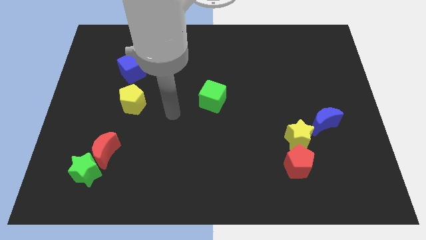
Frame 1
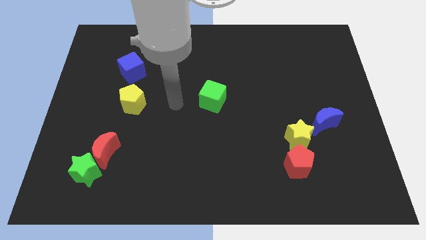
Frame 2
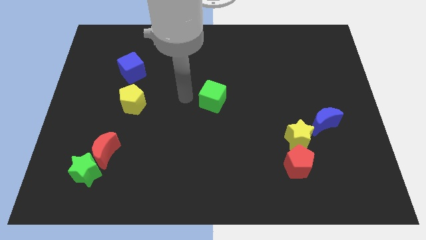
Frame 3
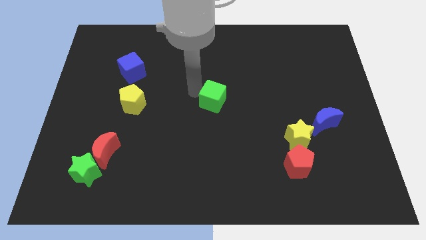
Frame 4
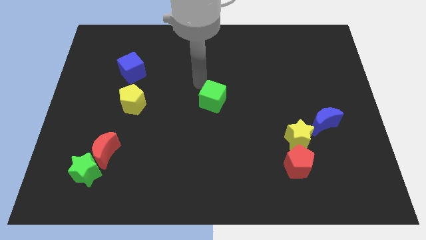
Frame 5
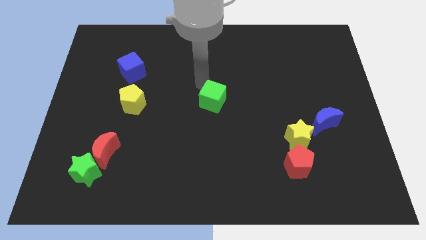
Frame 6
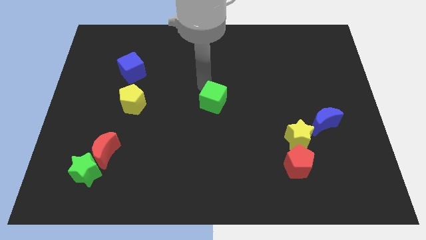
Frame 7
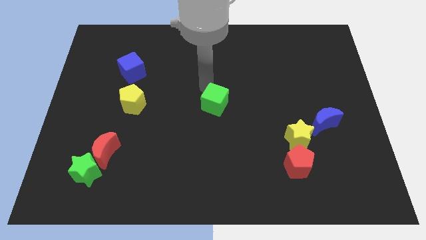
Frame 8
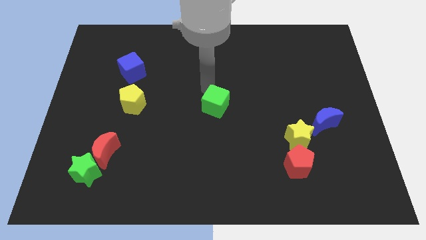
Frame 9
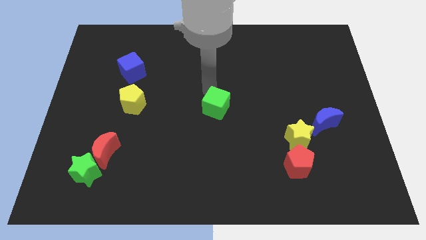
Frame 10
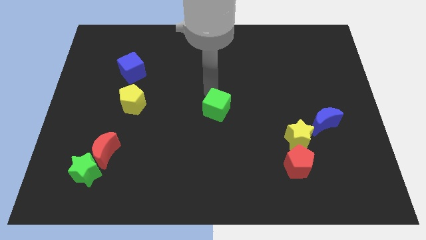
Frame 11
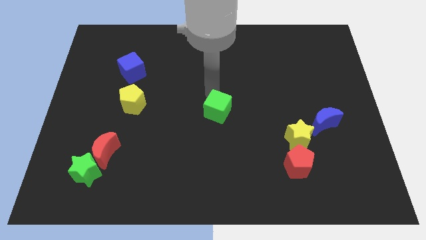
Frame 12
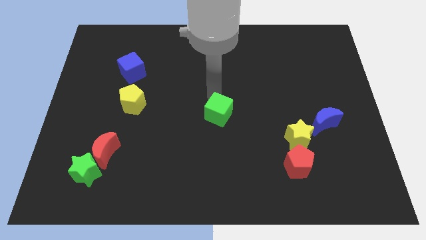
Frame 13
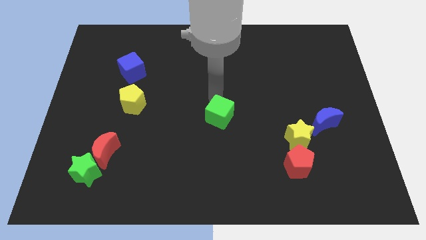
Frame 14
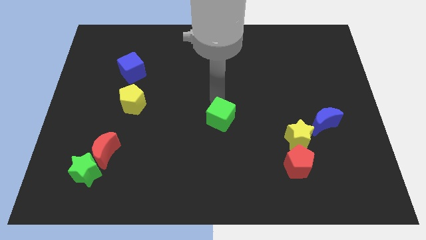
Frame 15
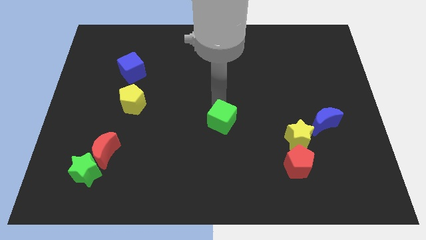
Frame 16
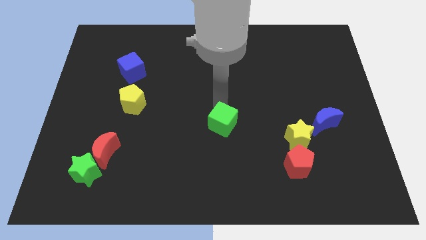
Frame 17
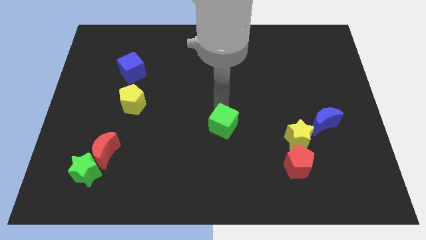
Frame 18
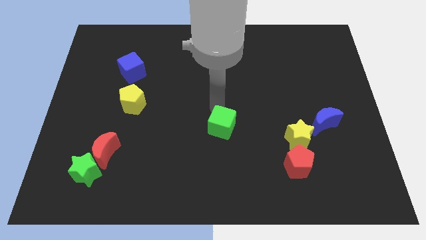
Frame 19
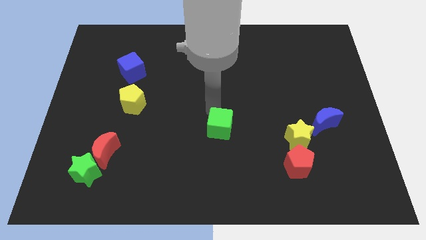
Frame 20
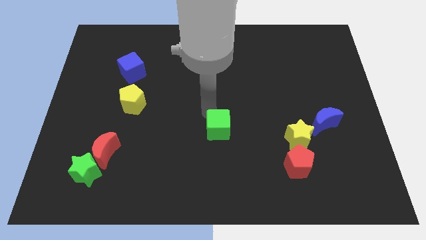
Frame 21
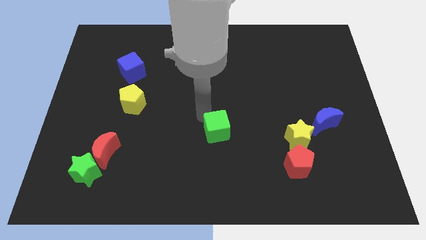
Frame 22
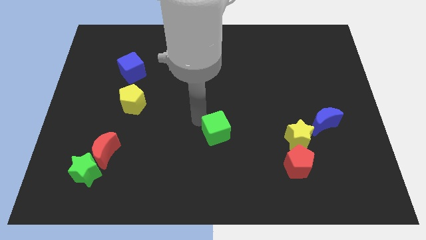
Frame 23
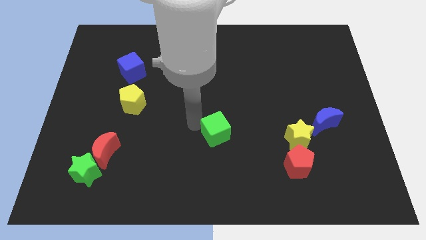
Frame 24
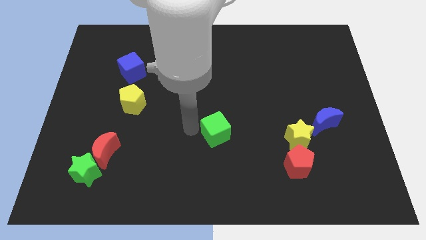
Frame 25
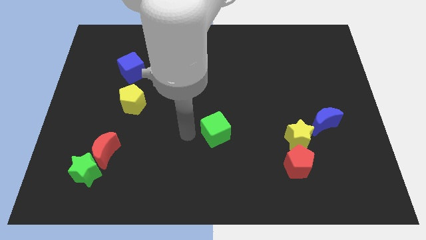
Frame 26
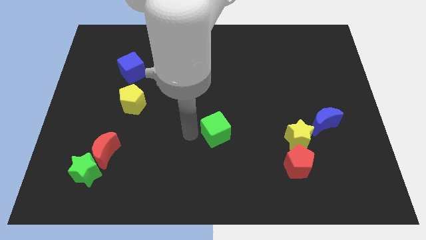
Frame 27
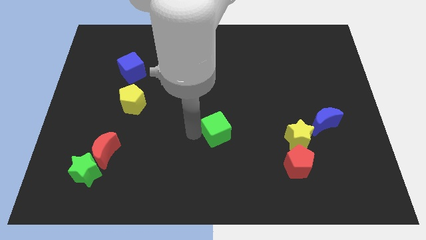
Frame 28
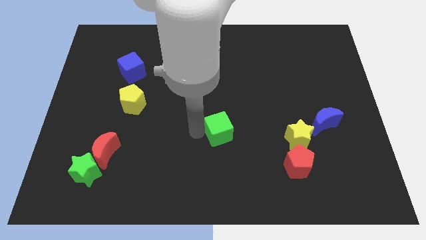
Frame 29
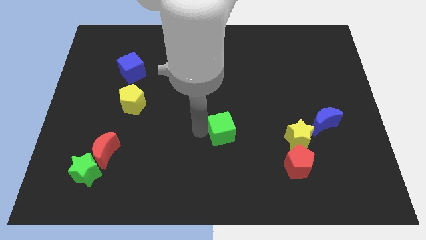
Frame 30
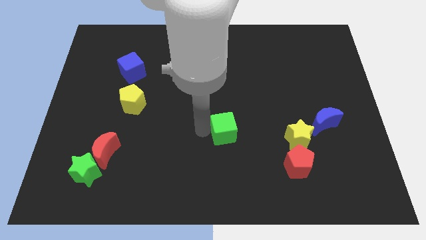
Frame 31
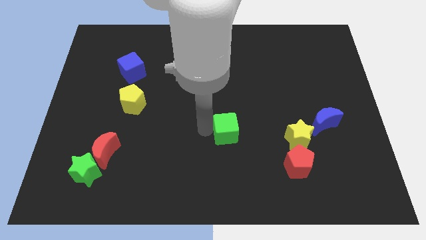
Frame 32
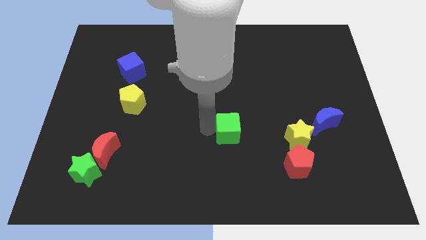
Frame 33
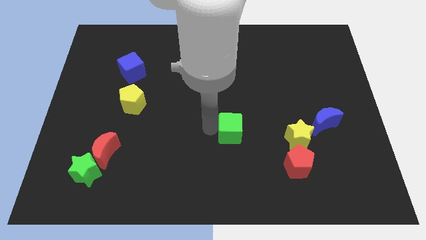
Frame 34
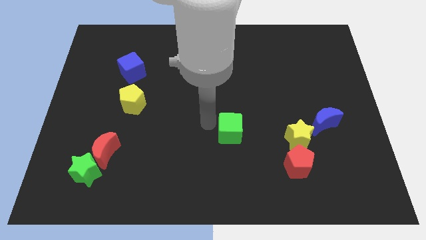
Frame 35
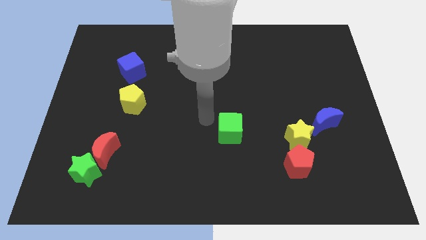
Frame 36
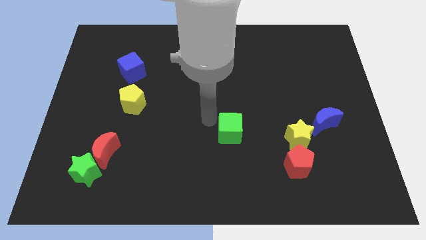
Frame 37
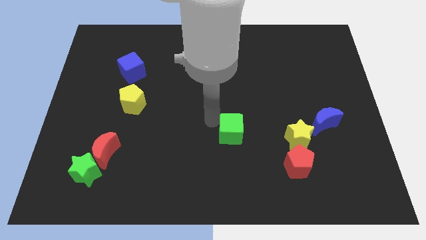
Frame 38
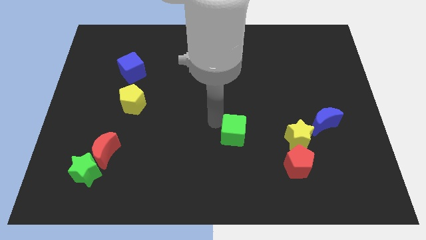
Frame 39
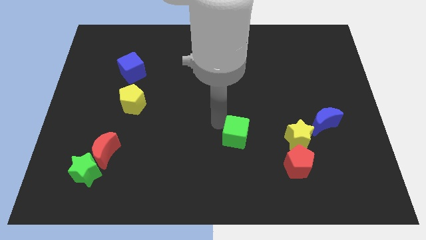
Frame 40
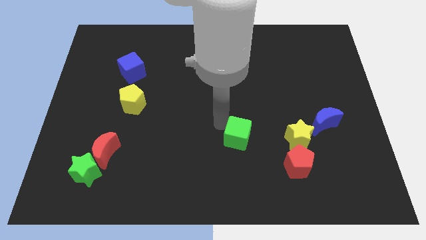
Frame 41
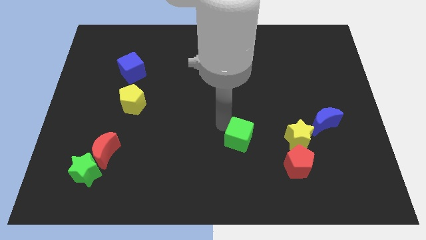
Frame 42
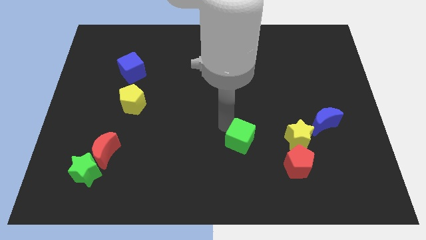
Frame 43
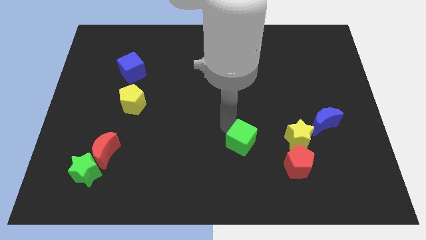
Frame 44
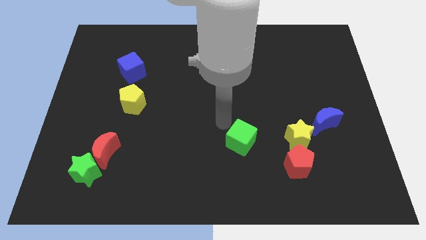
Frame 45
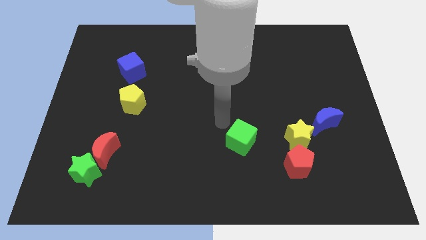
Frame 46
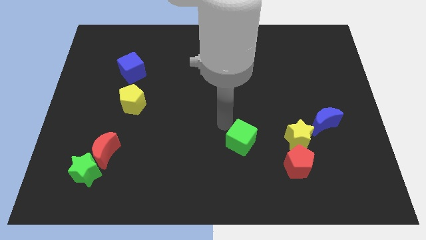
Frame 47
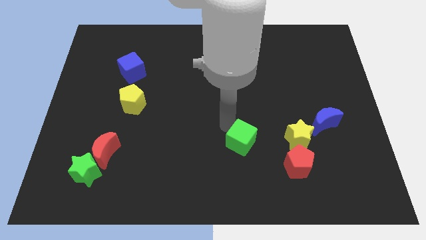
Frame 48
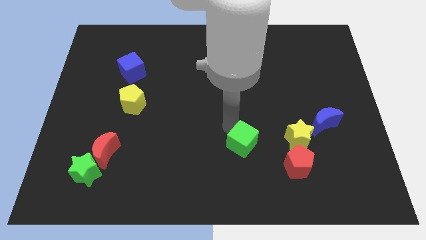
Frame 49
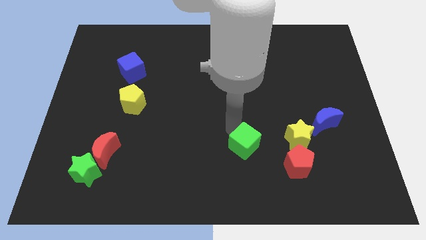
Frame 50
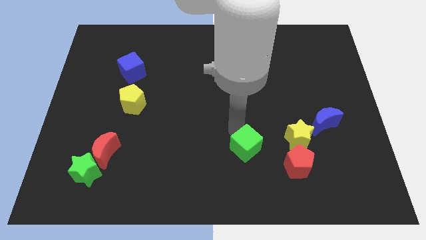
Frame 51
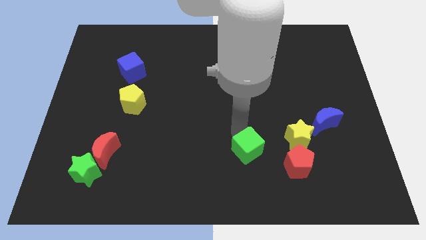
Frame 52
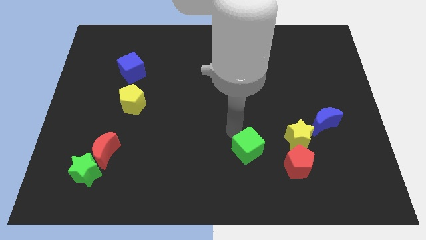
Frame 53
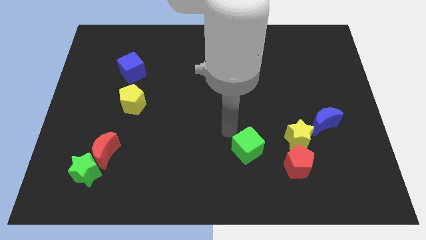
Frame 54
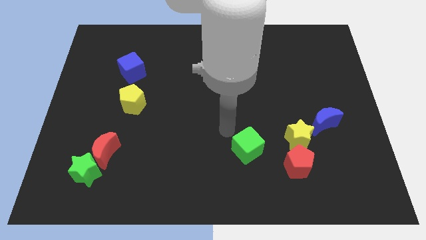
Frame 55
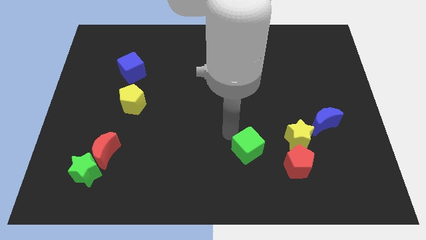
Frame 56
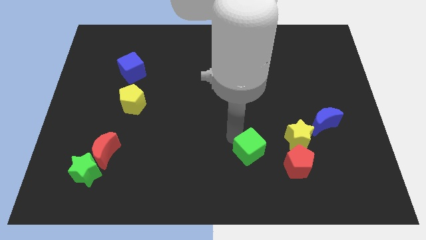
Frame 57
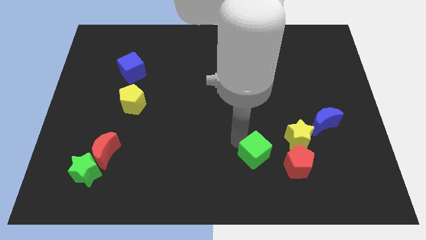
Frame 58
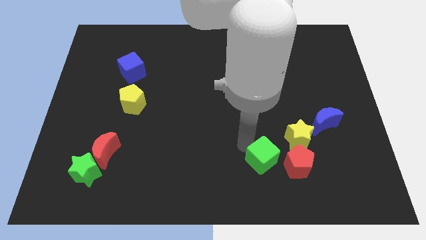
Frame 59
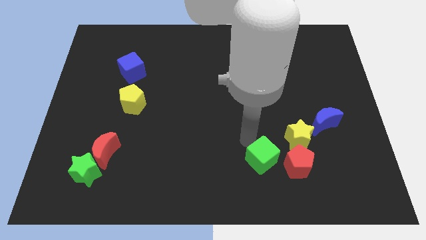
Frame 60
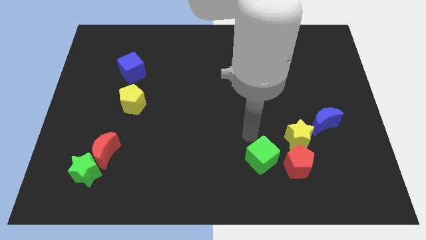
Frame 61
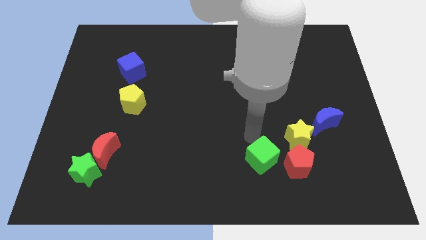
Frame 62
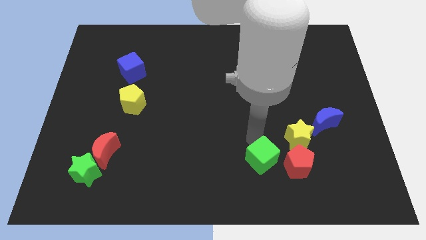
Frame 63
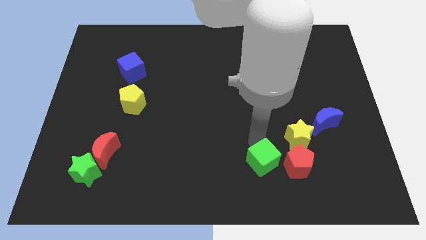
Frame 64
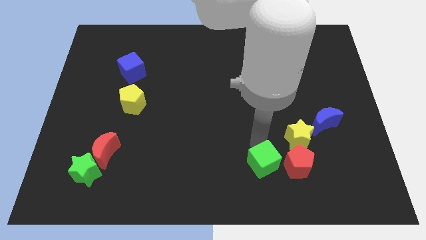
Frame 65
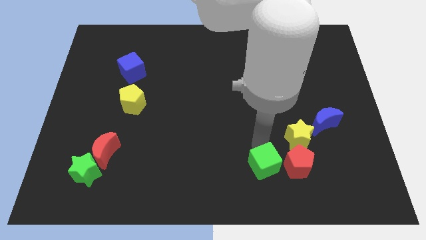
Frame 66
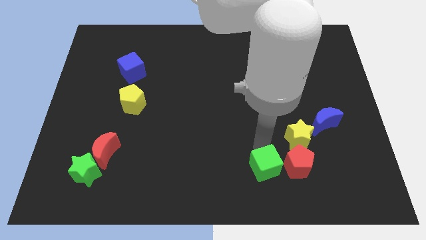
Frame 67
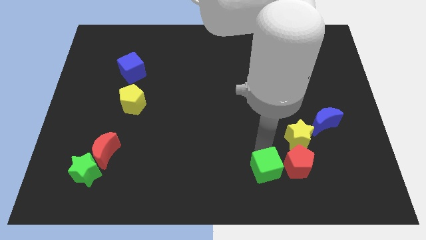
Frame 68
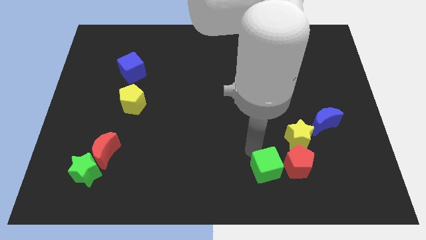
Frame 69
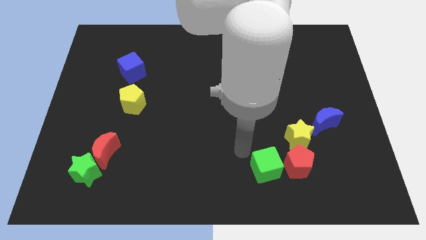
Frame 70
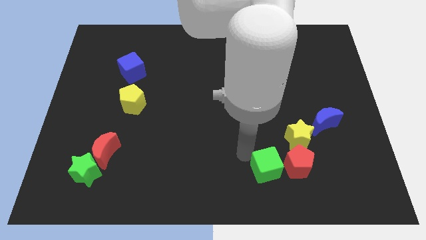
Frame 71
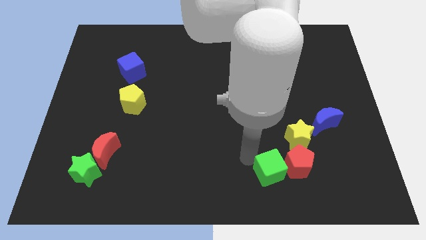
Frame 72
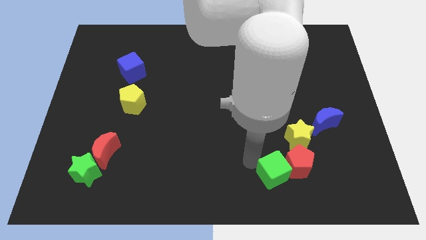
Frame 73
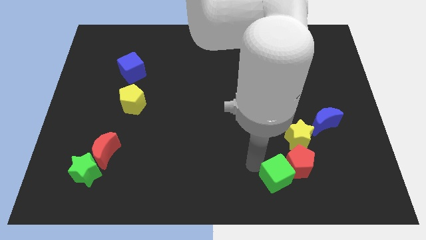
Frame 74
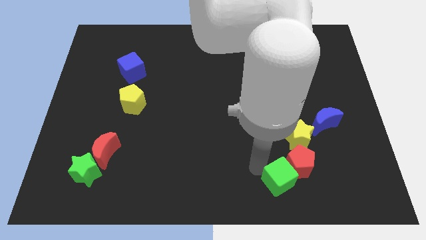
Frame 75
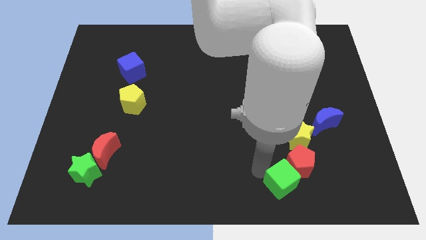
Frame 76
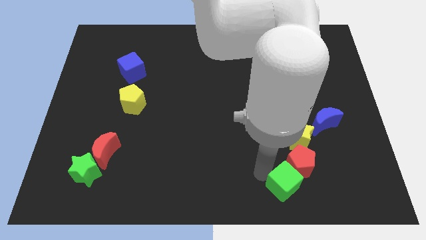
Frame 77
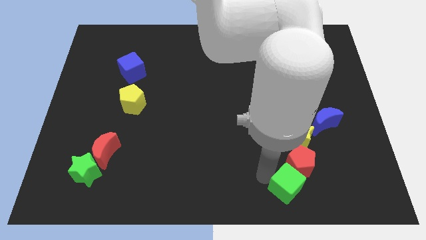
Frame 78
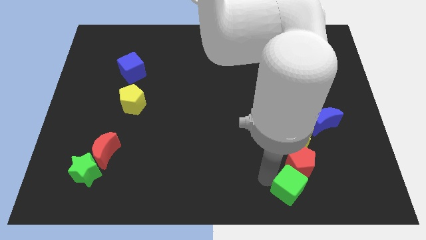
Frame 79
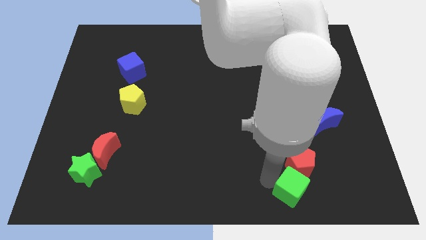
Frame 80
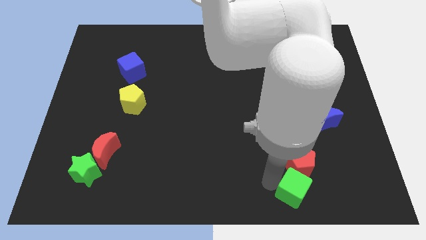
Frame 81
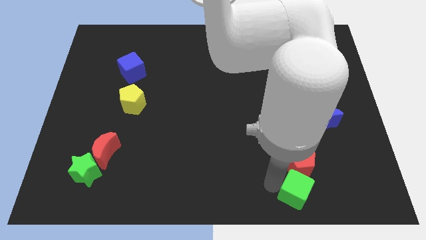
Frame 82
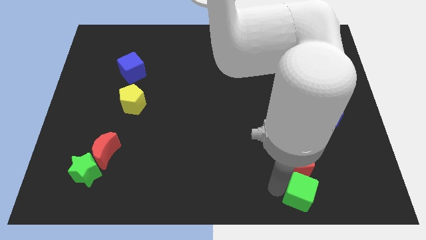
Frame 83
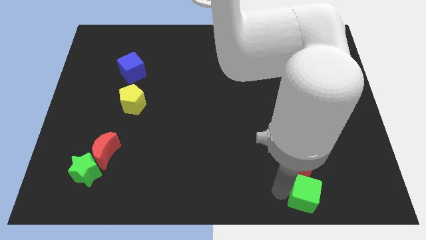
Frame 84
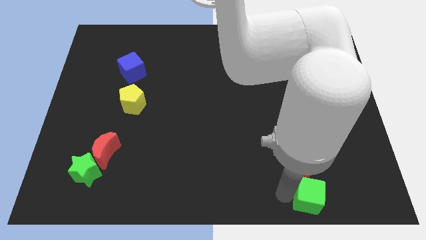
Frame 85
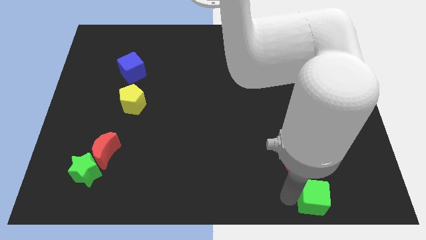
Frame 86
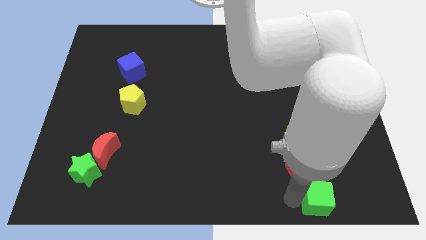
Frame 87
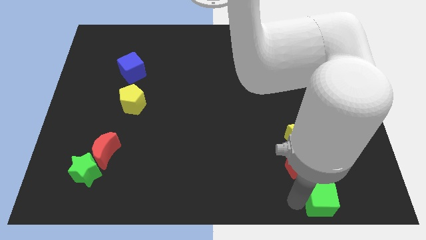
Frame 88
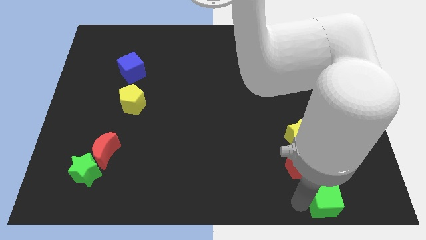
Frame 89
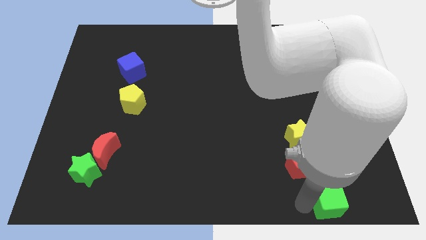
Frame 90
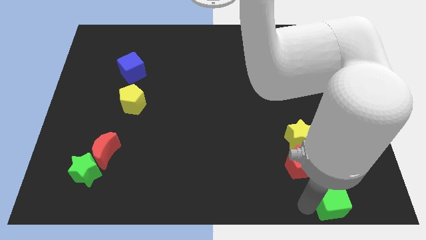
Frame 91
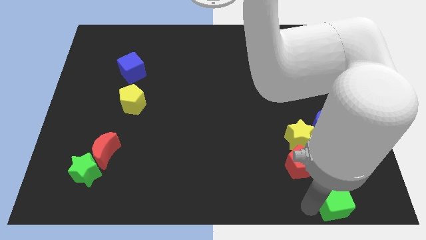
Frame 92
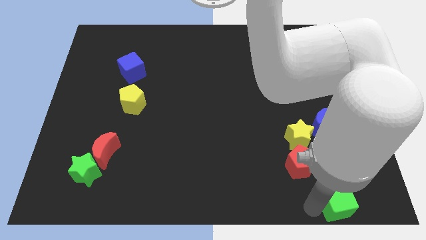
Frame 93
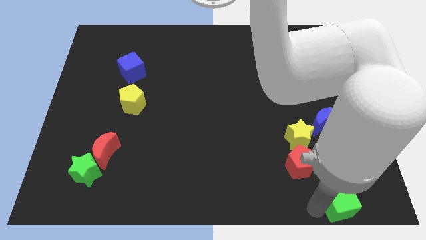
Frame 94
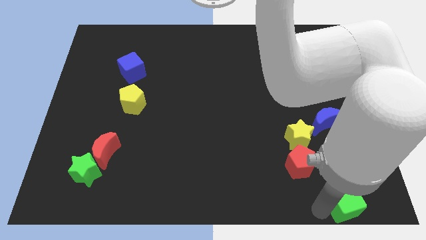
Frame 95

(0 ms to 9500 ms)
move the green cube to the lower right corner
